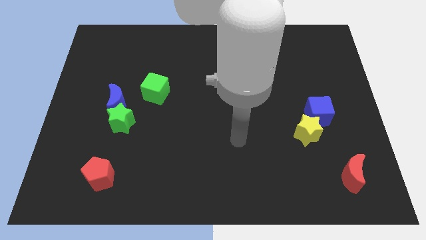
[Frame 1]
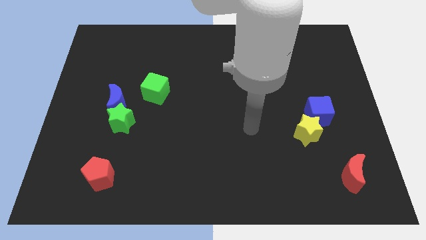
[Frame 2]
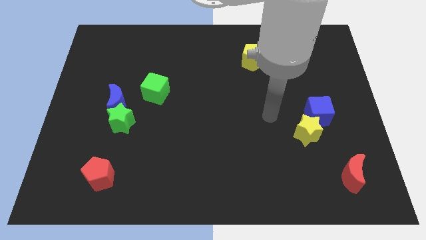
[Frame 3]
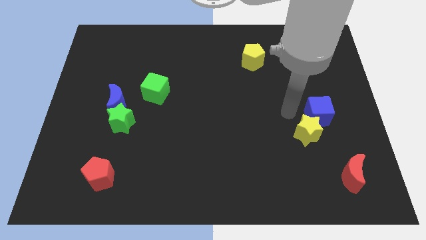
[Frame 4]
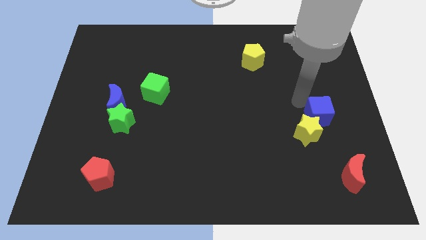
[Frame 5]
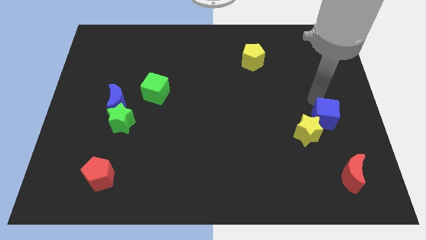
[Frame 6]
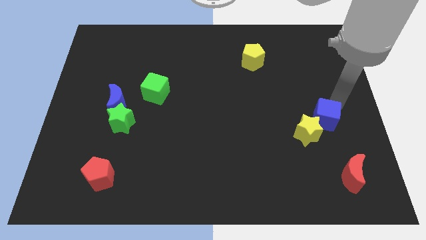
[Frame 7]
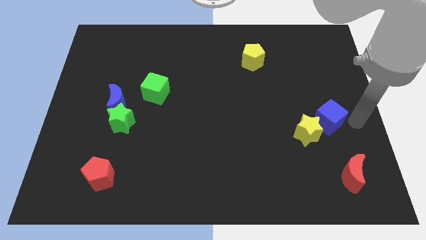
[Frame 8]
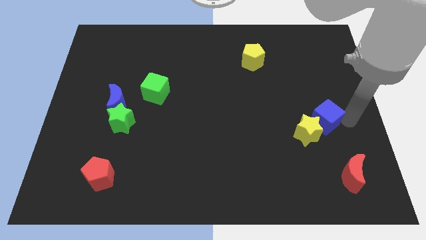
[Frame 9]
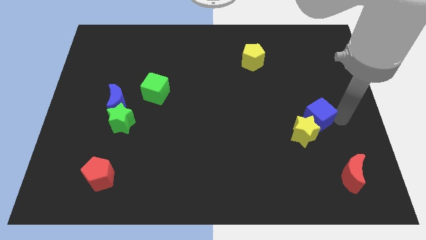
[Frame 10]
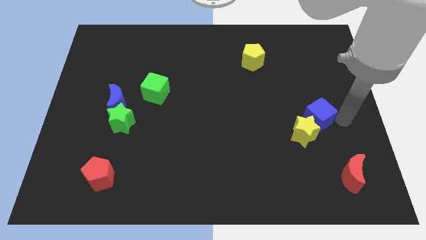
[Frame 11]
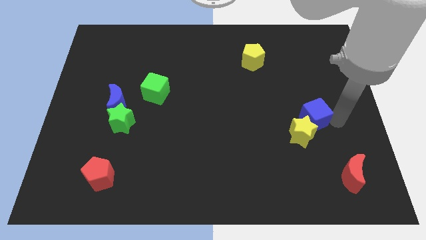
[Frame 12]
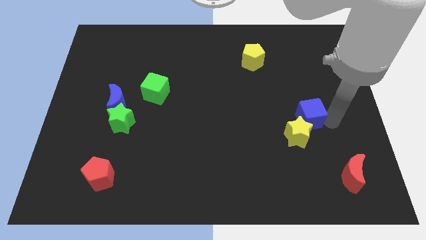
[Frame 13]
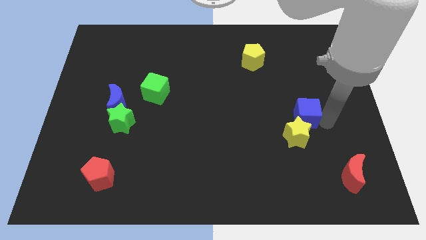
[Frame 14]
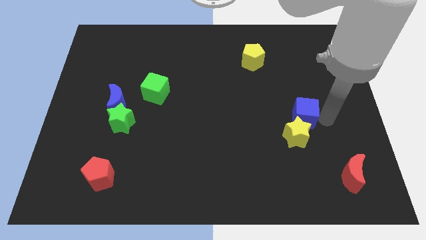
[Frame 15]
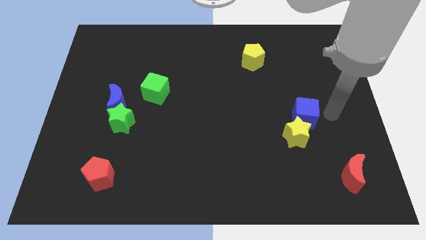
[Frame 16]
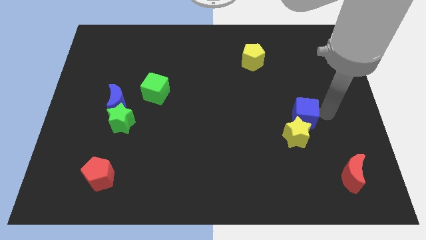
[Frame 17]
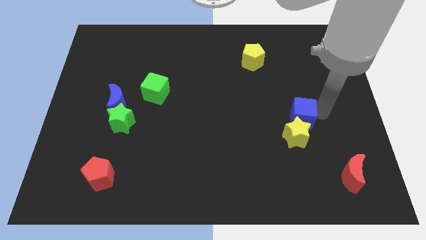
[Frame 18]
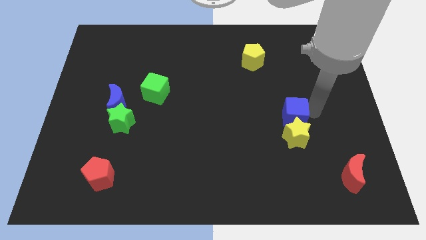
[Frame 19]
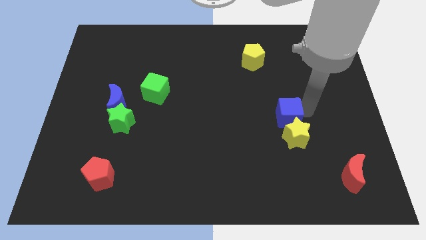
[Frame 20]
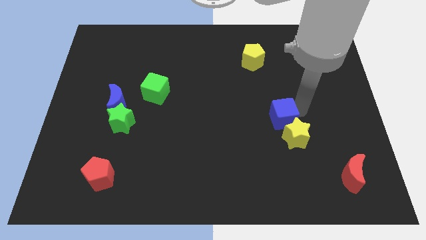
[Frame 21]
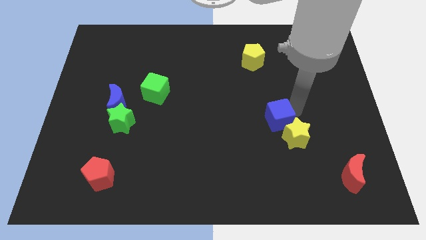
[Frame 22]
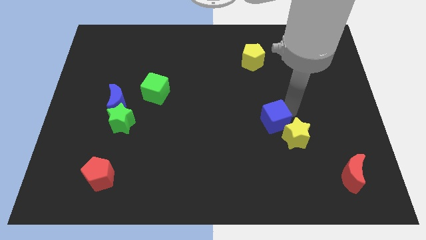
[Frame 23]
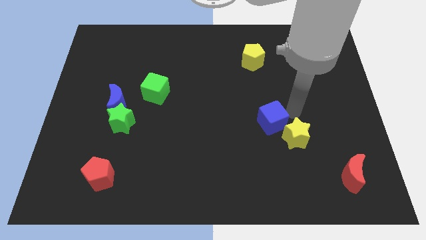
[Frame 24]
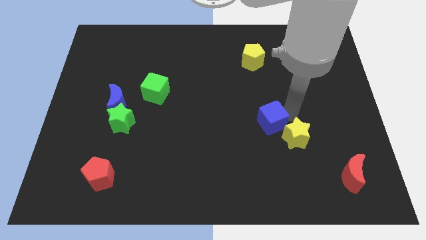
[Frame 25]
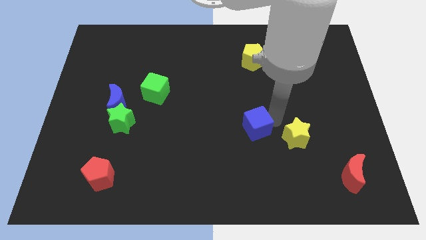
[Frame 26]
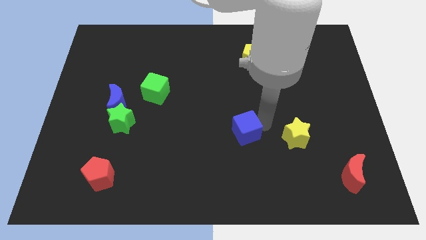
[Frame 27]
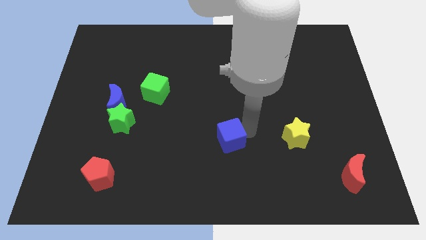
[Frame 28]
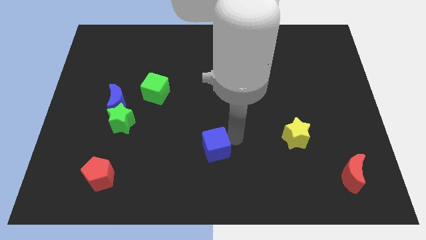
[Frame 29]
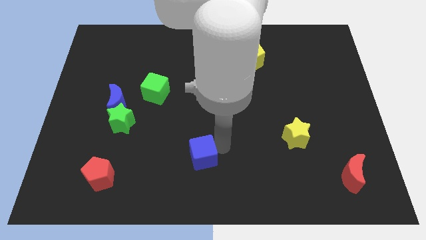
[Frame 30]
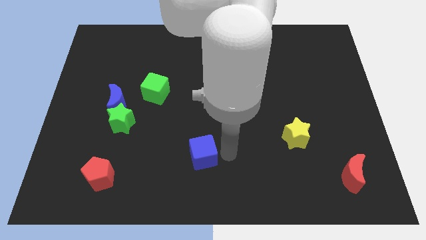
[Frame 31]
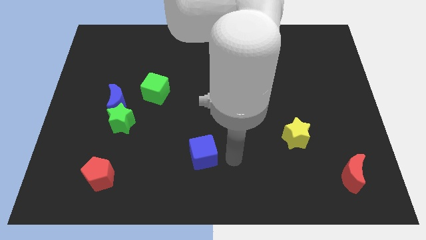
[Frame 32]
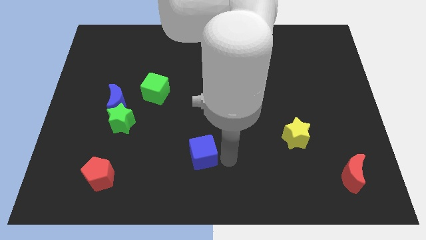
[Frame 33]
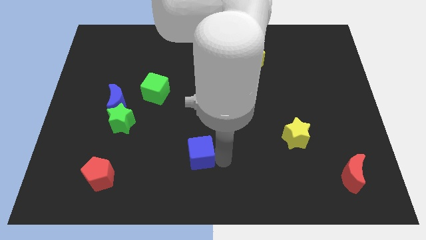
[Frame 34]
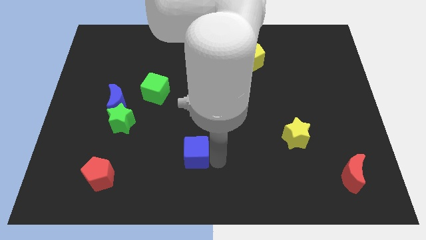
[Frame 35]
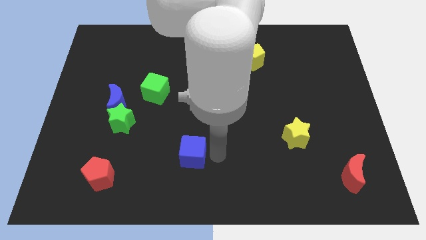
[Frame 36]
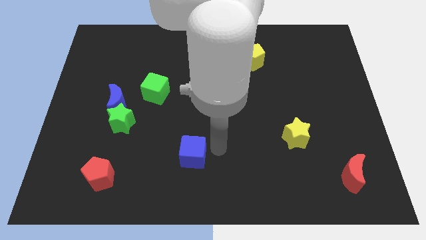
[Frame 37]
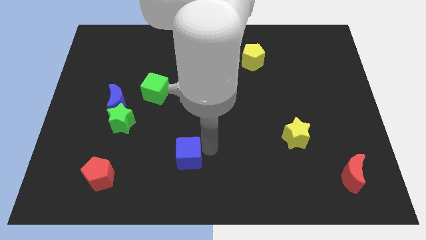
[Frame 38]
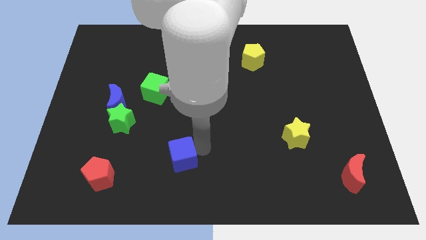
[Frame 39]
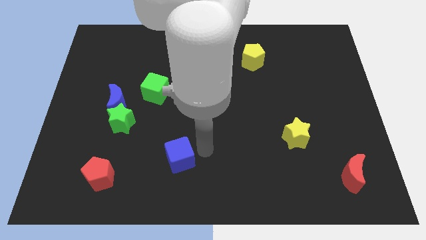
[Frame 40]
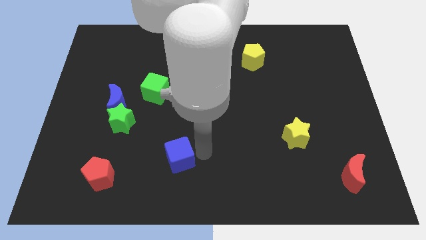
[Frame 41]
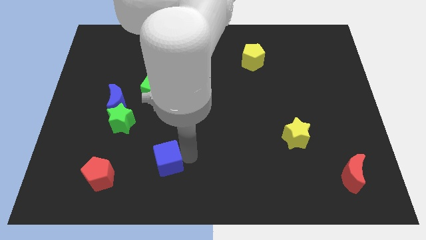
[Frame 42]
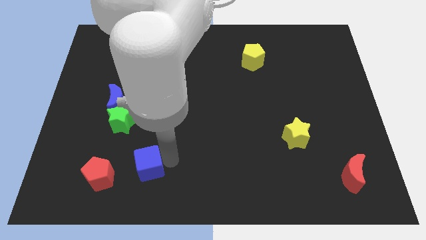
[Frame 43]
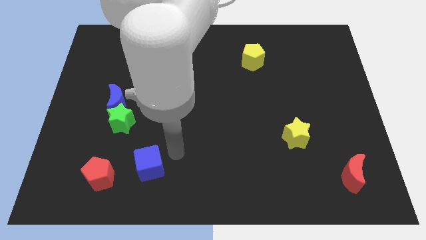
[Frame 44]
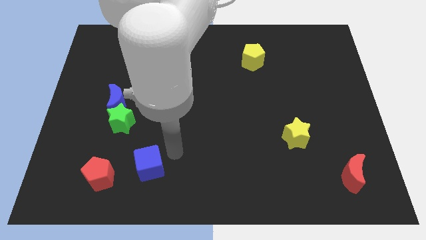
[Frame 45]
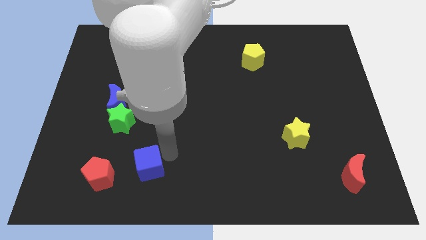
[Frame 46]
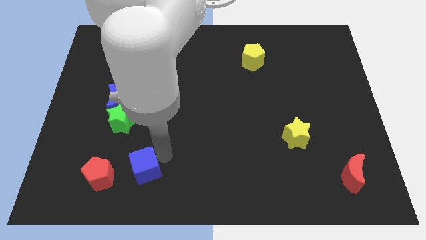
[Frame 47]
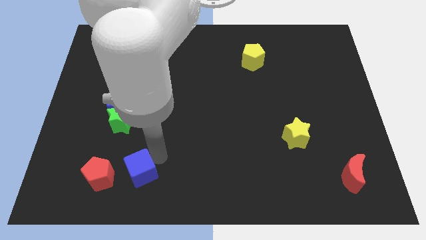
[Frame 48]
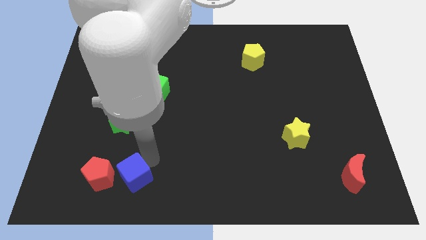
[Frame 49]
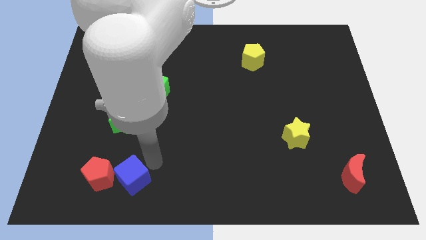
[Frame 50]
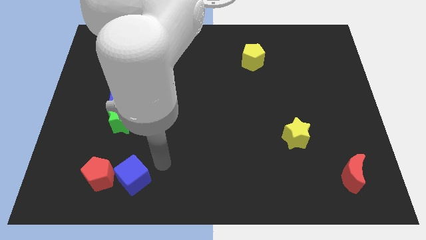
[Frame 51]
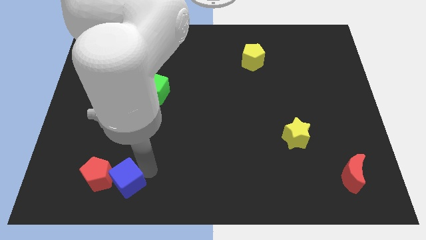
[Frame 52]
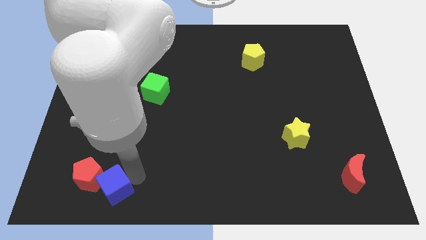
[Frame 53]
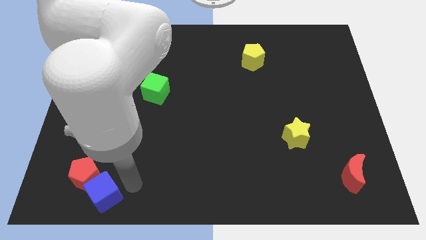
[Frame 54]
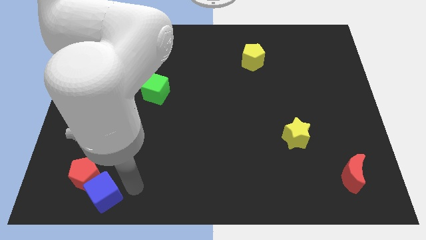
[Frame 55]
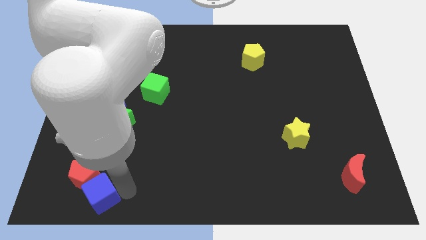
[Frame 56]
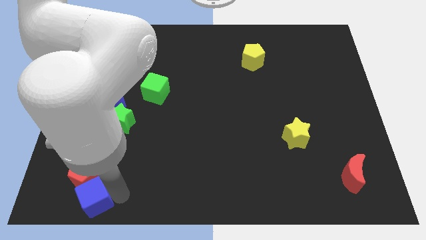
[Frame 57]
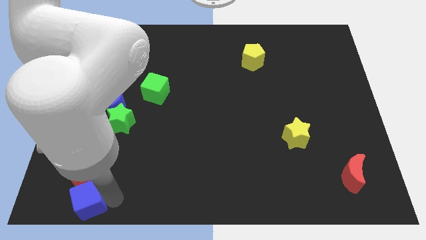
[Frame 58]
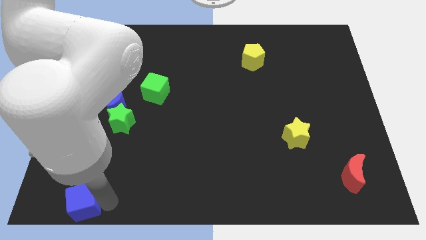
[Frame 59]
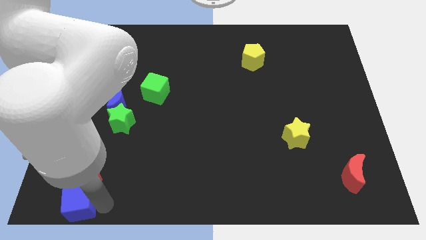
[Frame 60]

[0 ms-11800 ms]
move the blue cube to the bottom left of the board
